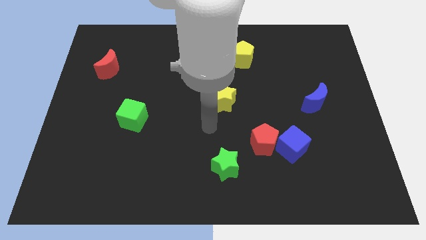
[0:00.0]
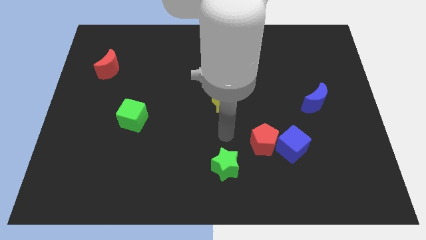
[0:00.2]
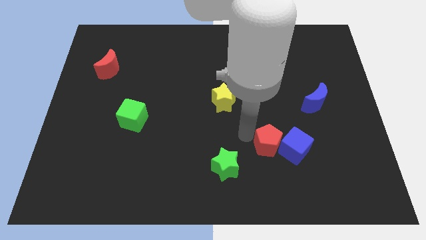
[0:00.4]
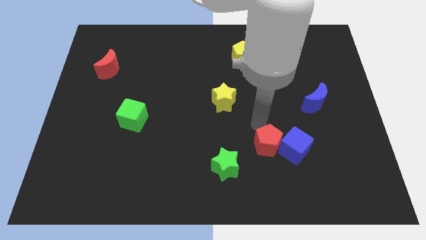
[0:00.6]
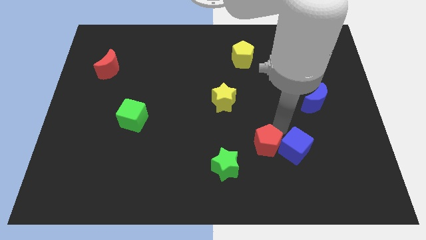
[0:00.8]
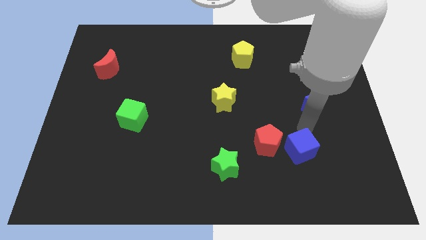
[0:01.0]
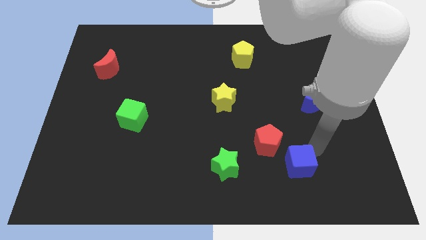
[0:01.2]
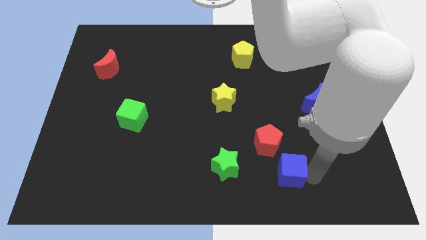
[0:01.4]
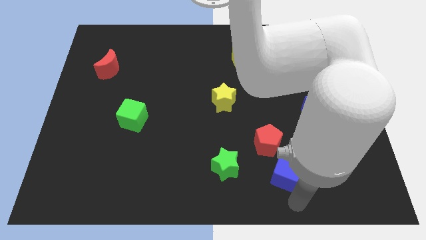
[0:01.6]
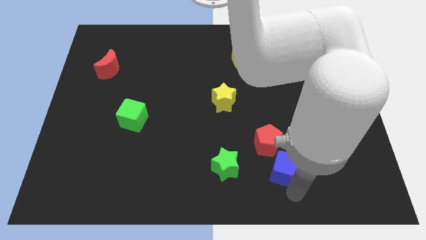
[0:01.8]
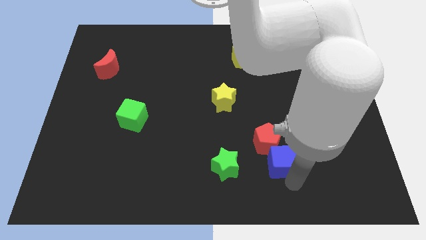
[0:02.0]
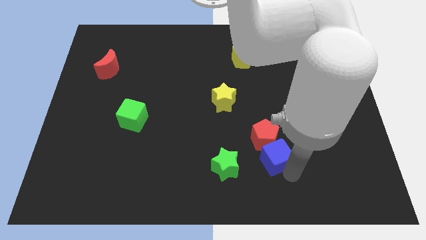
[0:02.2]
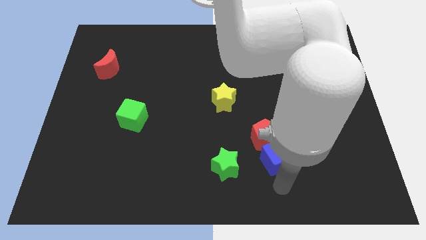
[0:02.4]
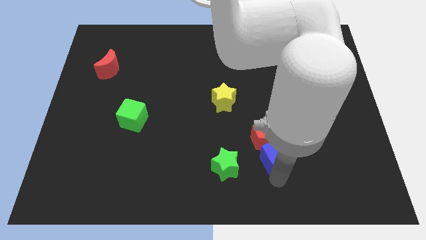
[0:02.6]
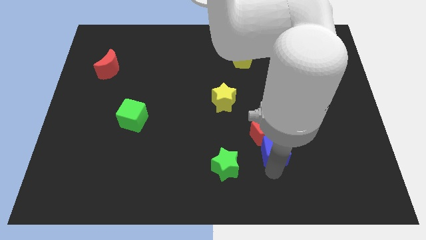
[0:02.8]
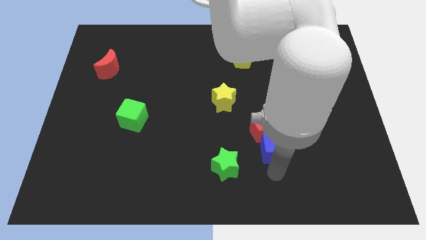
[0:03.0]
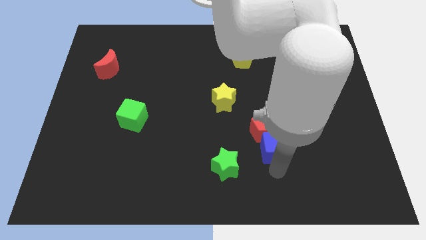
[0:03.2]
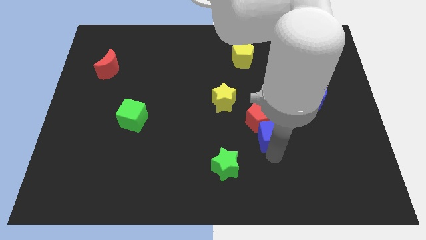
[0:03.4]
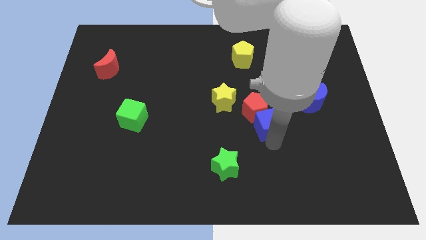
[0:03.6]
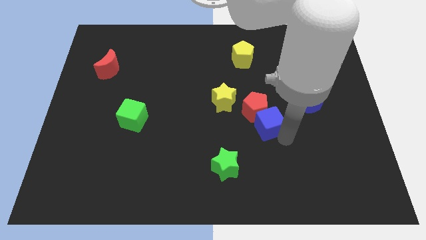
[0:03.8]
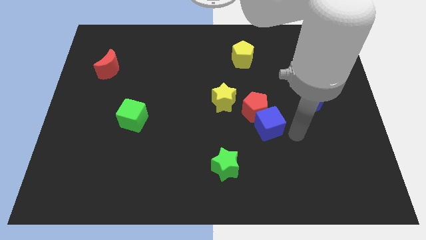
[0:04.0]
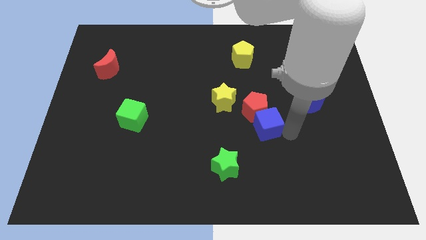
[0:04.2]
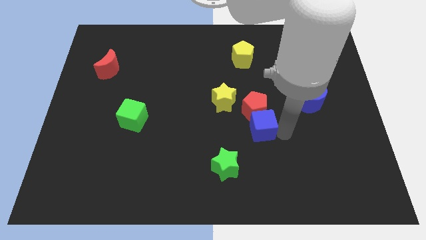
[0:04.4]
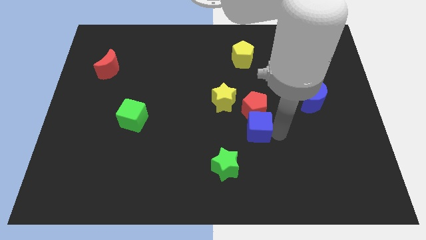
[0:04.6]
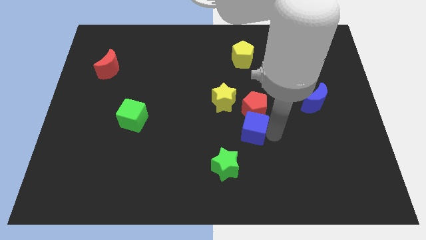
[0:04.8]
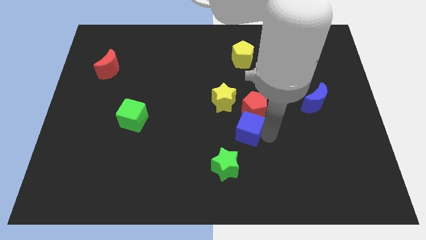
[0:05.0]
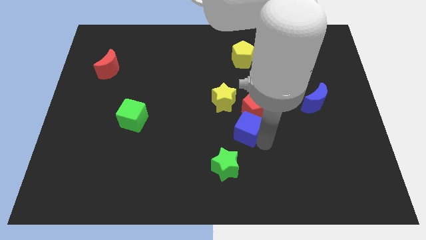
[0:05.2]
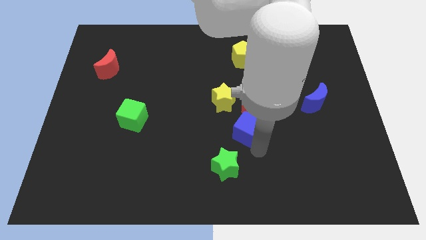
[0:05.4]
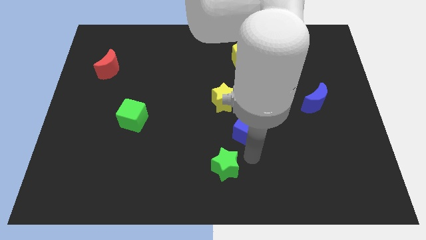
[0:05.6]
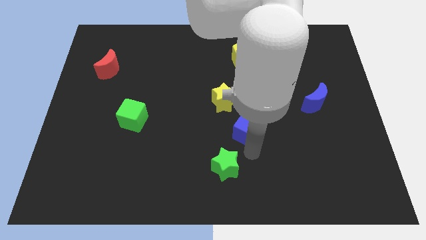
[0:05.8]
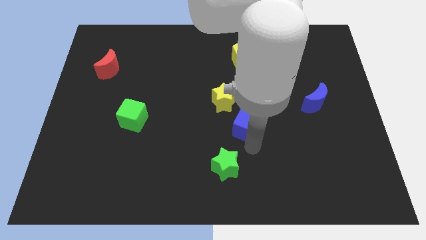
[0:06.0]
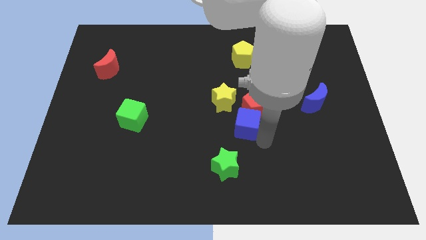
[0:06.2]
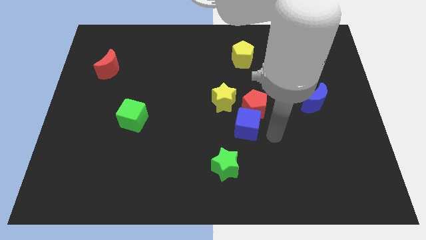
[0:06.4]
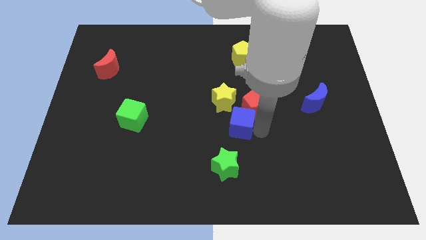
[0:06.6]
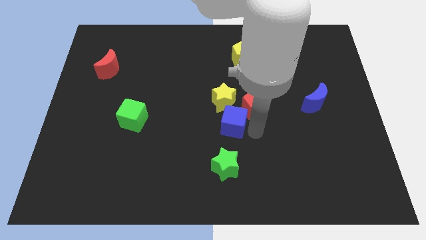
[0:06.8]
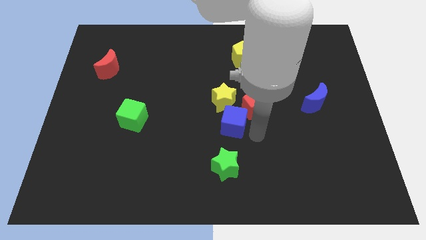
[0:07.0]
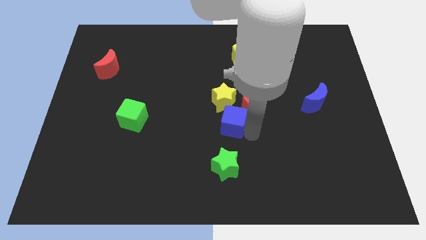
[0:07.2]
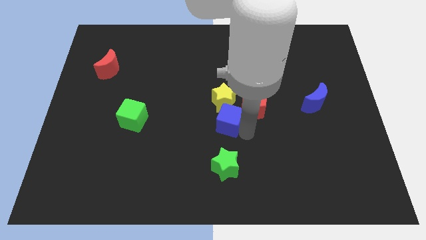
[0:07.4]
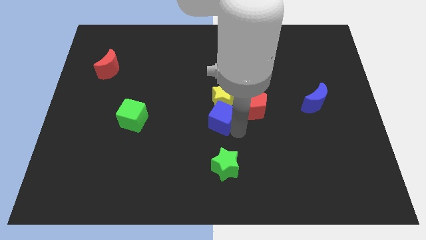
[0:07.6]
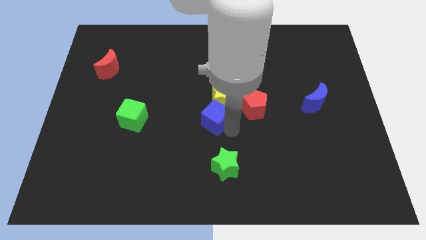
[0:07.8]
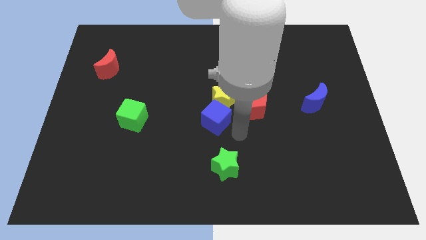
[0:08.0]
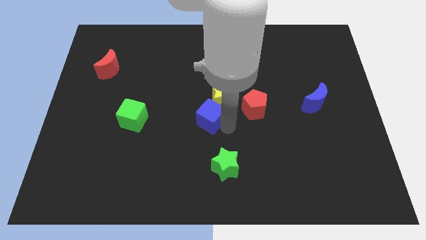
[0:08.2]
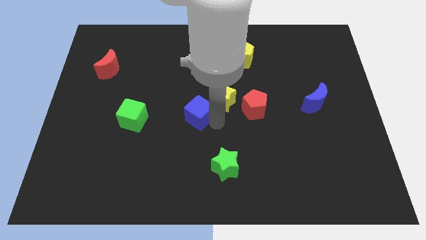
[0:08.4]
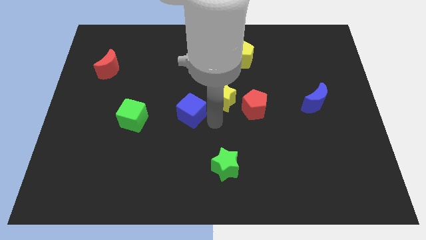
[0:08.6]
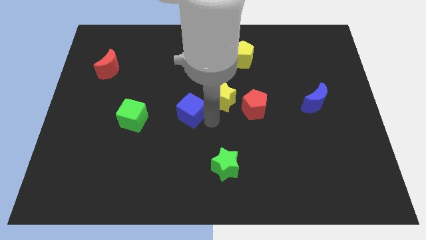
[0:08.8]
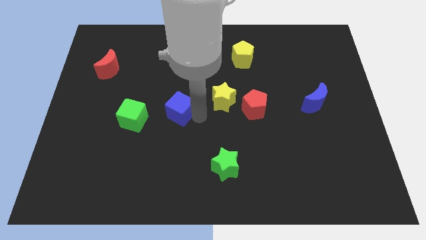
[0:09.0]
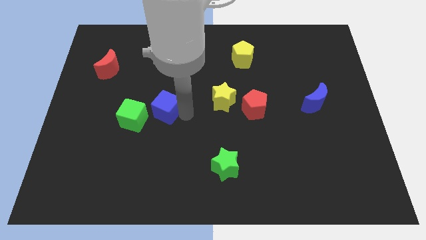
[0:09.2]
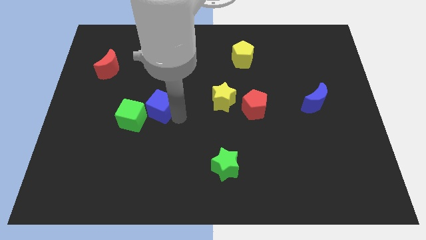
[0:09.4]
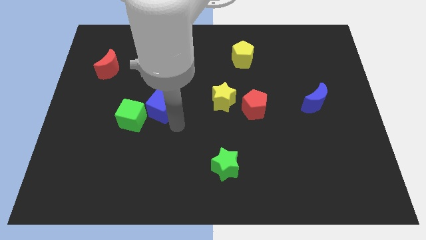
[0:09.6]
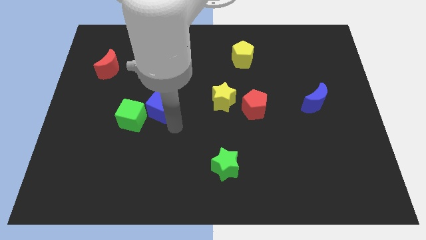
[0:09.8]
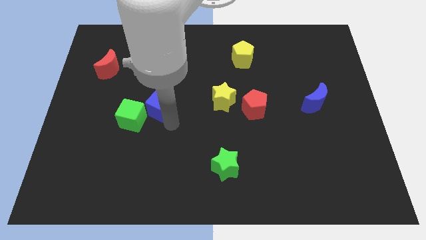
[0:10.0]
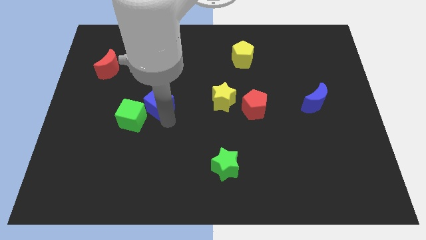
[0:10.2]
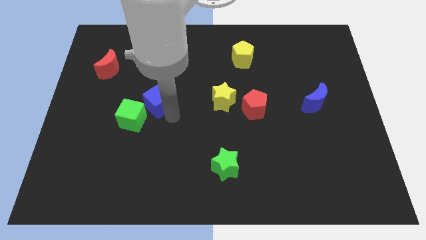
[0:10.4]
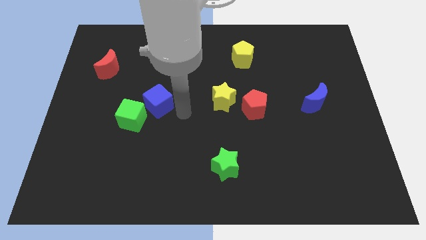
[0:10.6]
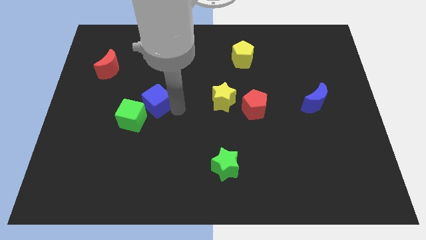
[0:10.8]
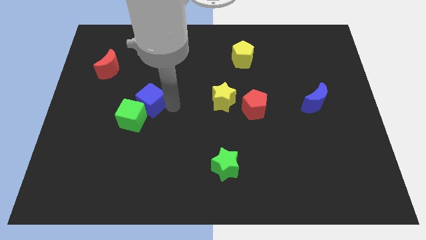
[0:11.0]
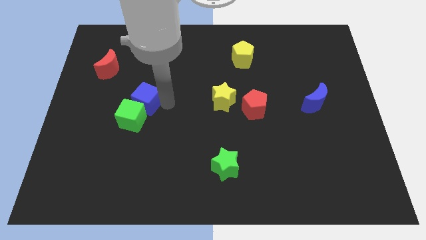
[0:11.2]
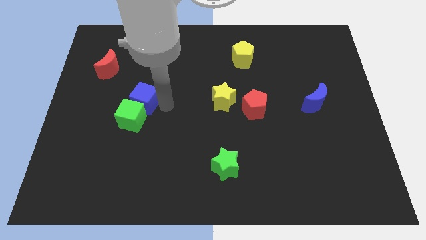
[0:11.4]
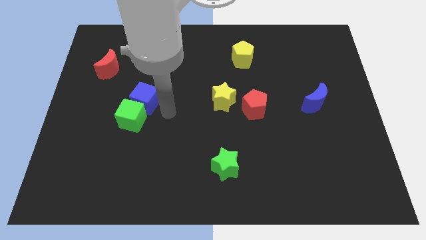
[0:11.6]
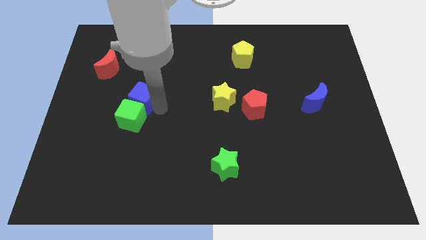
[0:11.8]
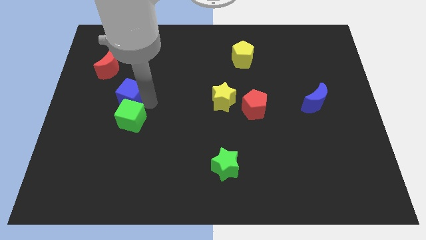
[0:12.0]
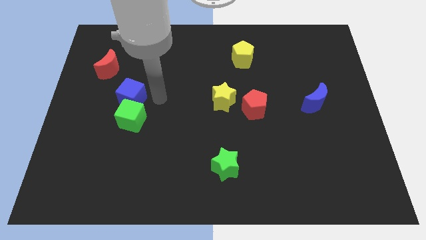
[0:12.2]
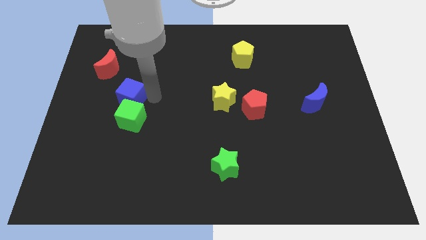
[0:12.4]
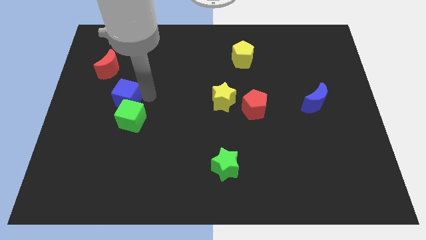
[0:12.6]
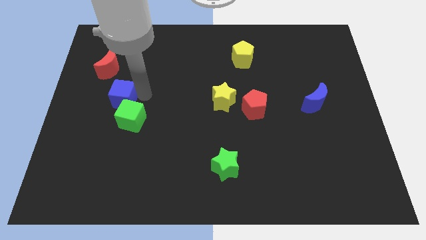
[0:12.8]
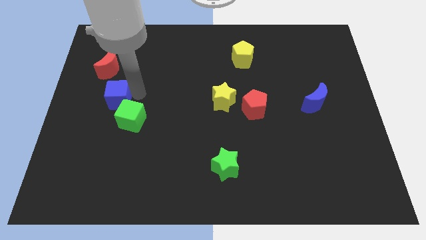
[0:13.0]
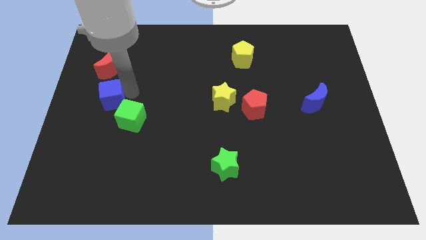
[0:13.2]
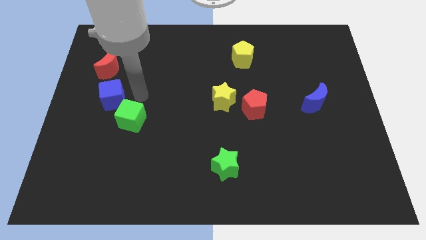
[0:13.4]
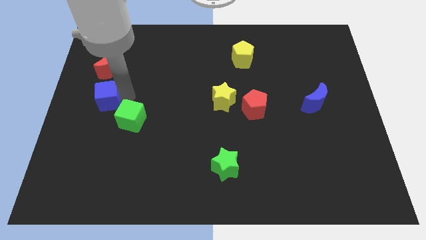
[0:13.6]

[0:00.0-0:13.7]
push the blue cube to the left side of the board
